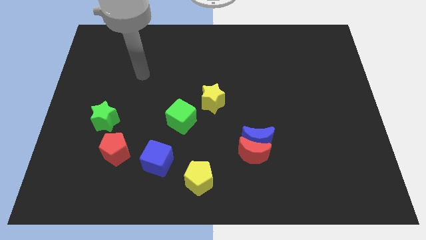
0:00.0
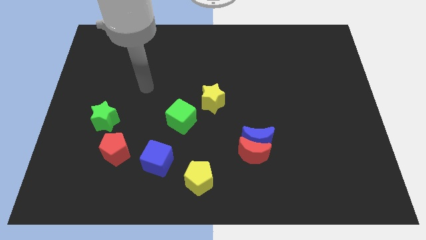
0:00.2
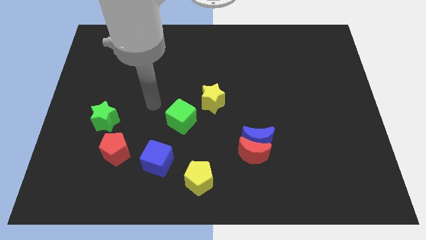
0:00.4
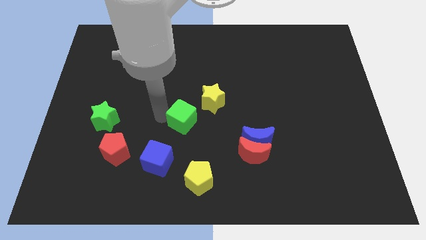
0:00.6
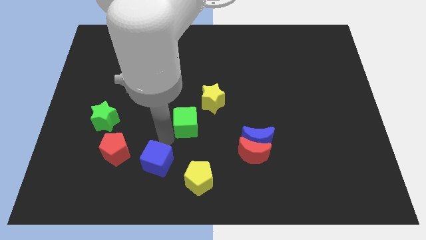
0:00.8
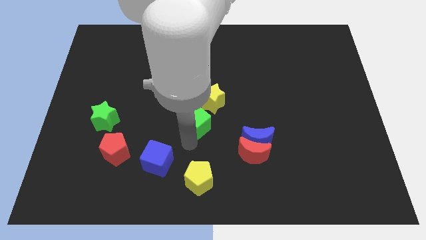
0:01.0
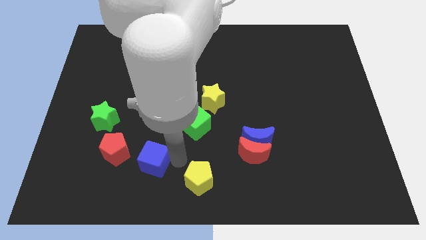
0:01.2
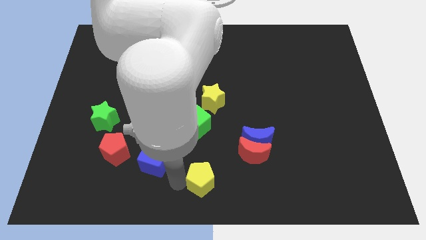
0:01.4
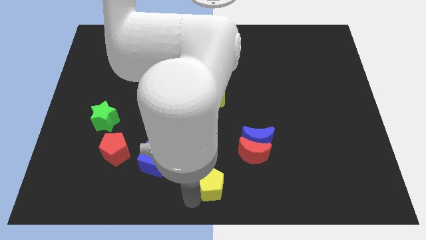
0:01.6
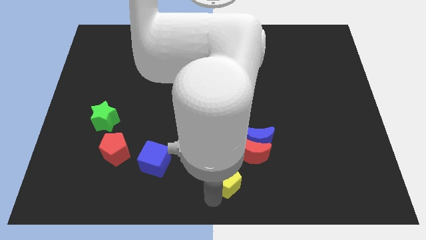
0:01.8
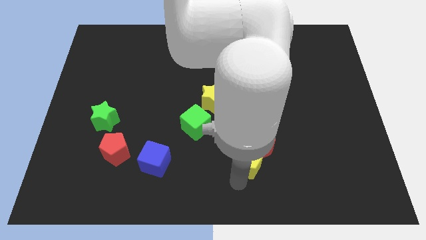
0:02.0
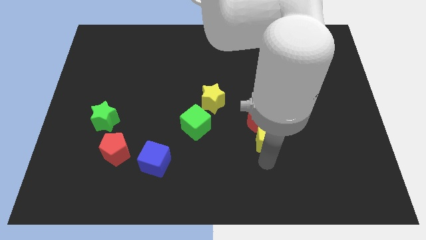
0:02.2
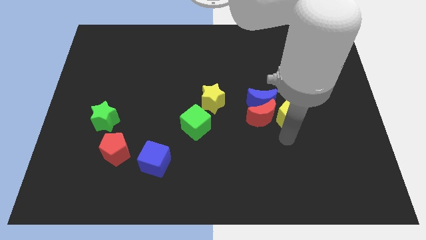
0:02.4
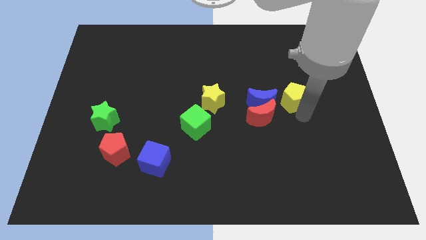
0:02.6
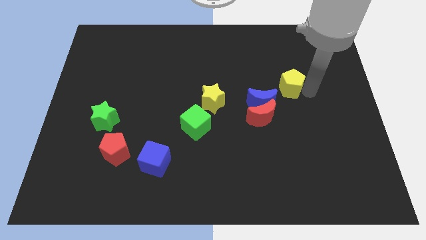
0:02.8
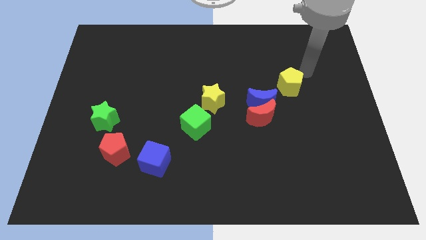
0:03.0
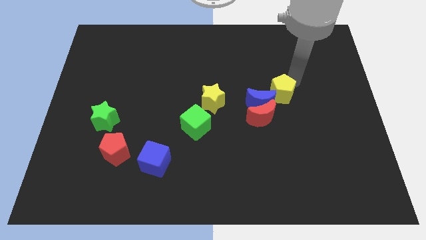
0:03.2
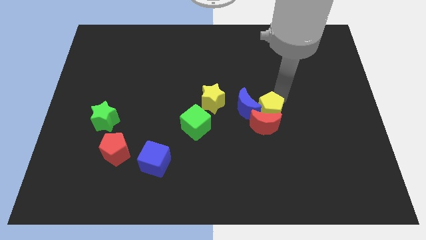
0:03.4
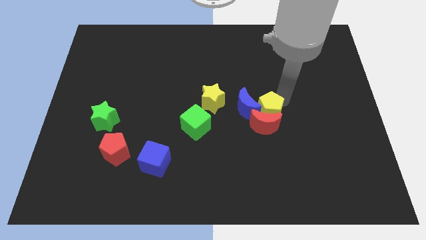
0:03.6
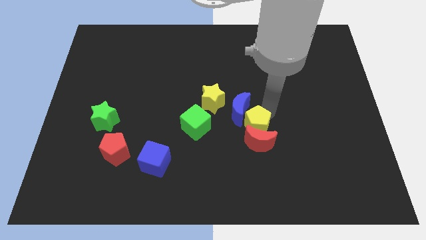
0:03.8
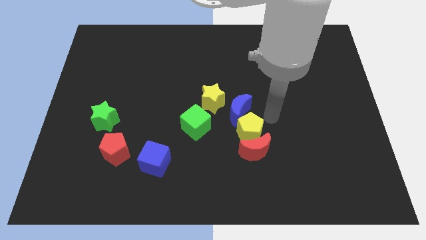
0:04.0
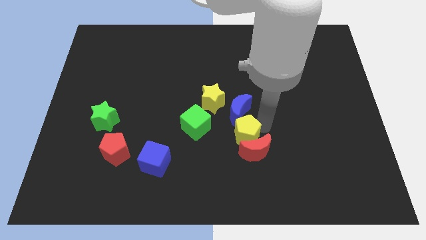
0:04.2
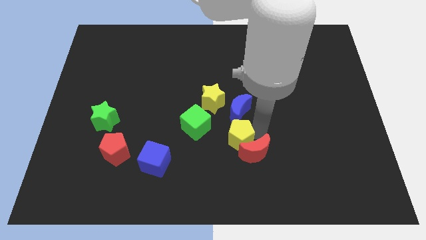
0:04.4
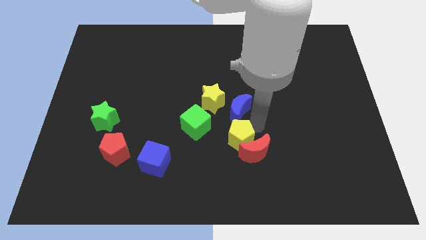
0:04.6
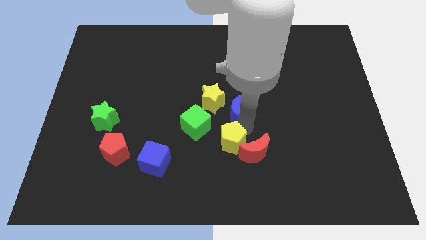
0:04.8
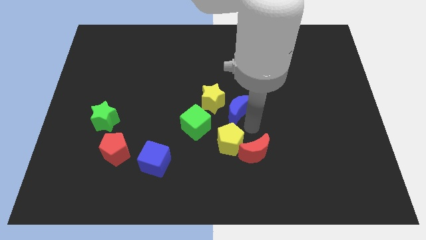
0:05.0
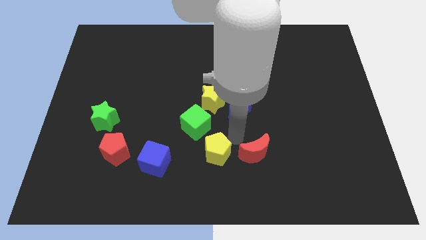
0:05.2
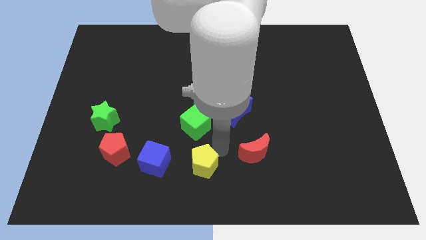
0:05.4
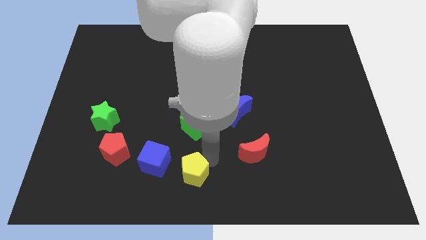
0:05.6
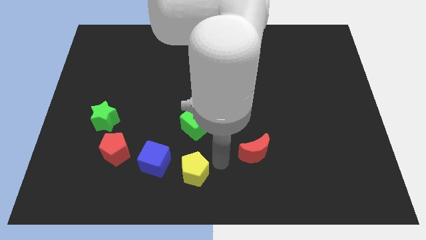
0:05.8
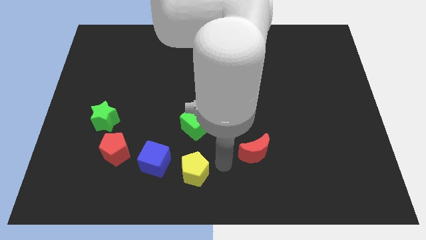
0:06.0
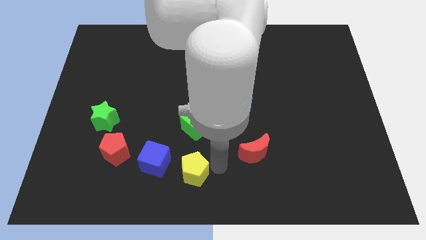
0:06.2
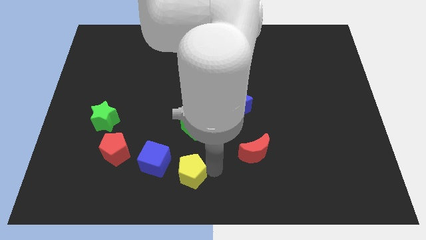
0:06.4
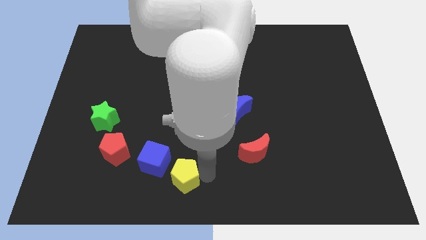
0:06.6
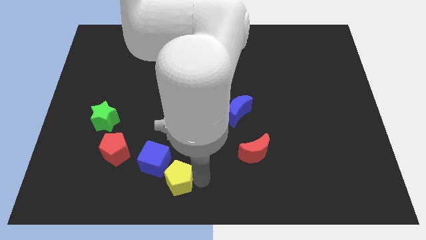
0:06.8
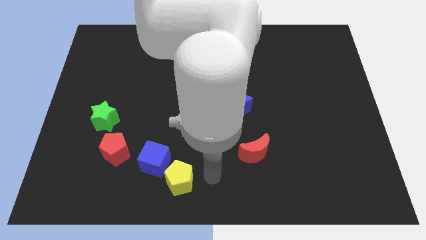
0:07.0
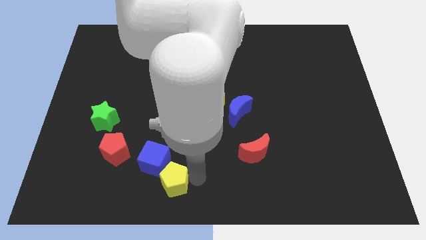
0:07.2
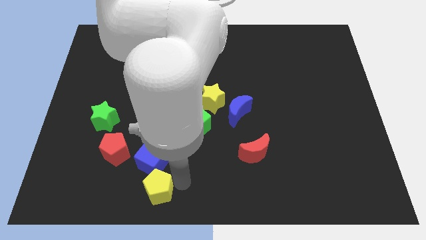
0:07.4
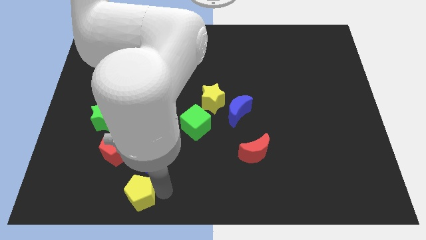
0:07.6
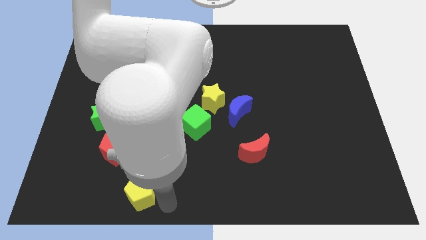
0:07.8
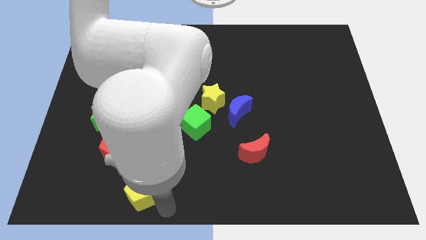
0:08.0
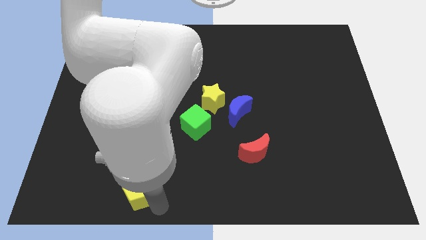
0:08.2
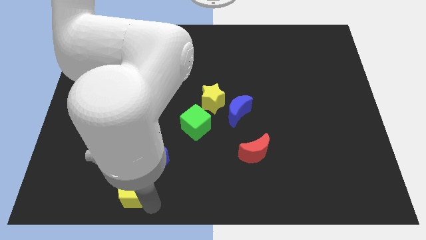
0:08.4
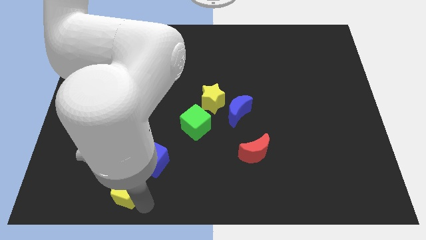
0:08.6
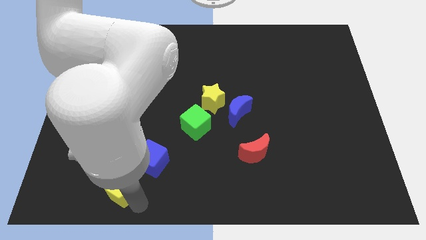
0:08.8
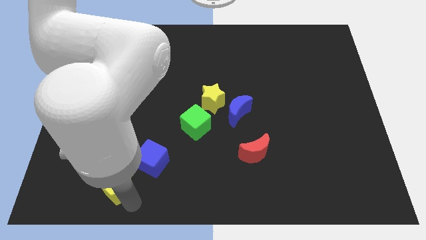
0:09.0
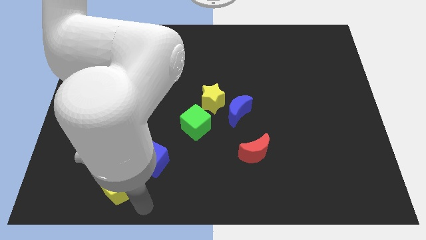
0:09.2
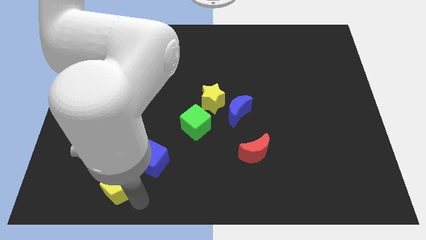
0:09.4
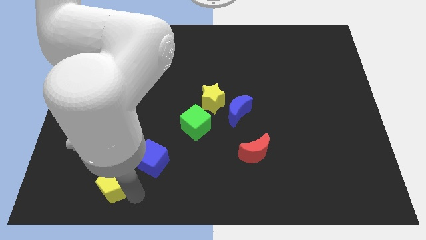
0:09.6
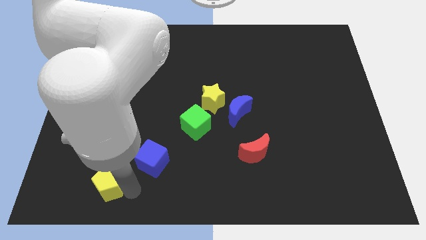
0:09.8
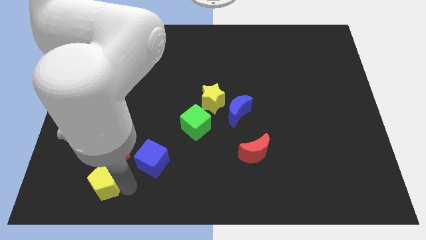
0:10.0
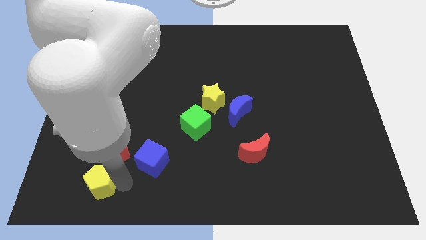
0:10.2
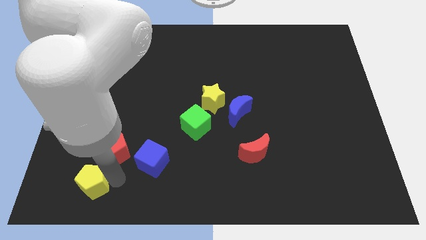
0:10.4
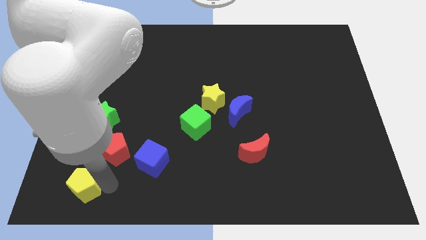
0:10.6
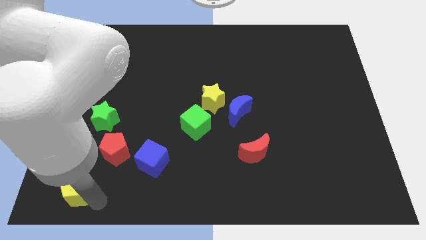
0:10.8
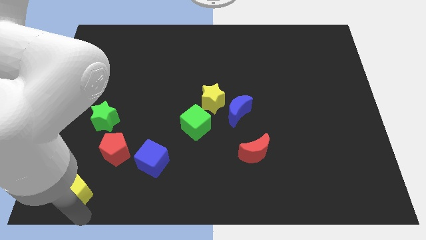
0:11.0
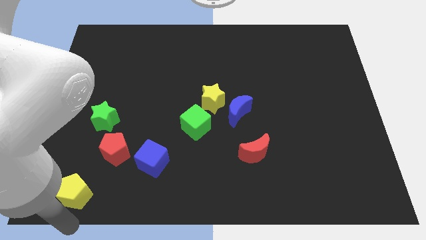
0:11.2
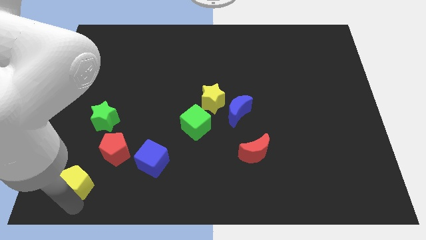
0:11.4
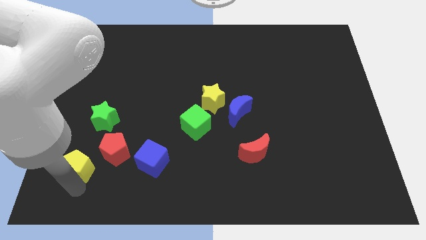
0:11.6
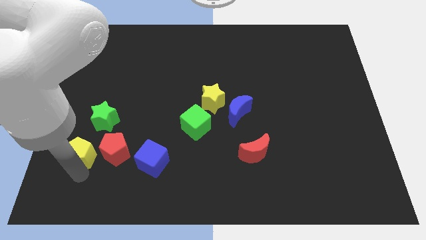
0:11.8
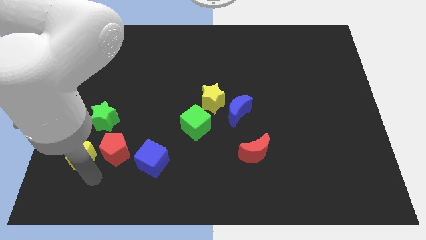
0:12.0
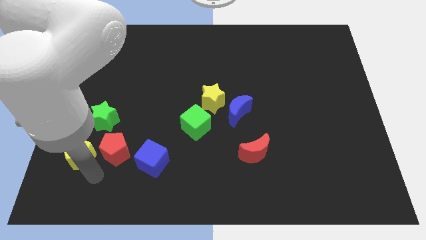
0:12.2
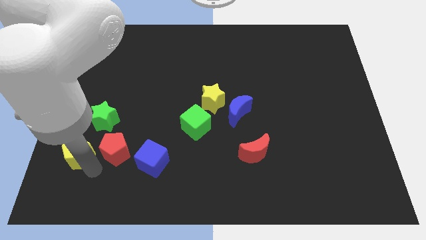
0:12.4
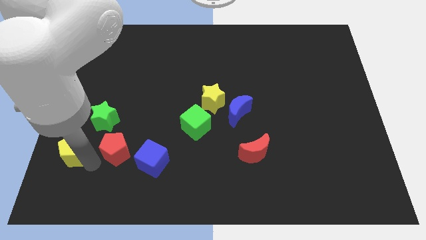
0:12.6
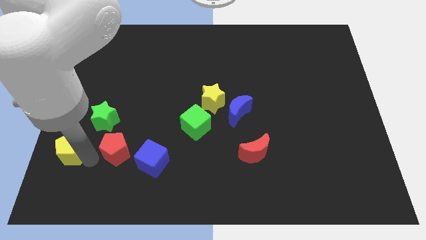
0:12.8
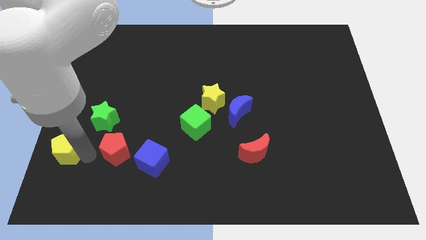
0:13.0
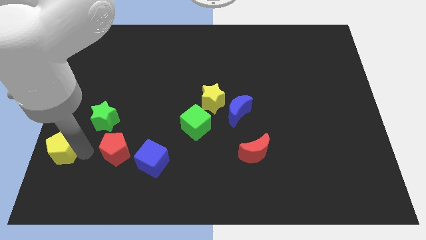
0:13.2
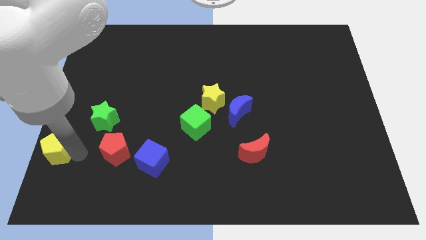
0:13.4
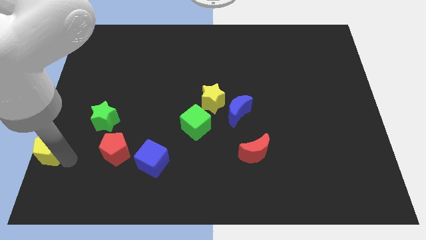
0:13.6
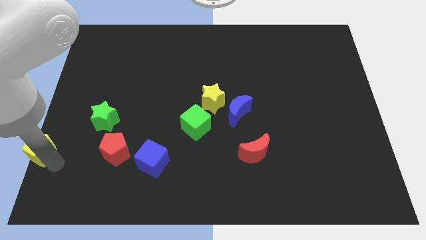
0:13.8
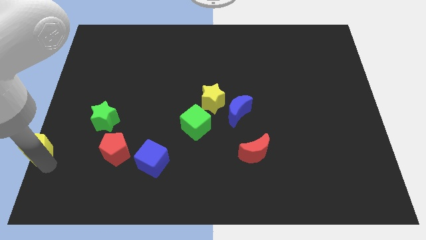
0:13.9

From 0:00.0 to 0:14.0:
slide the yellow pentagon to the left side of the board
